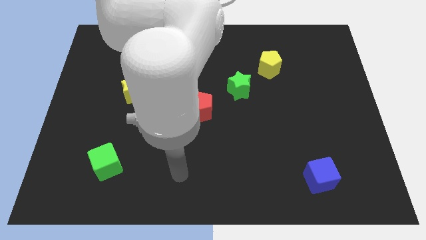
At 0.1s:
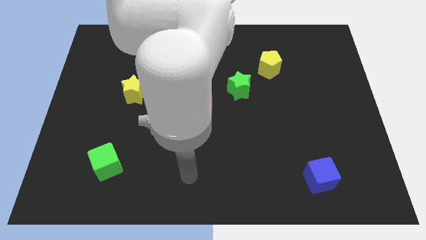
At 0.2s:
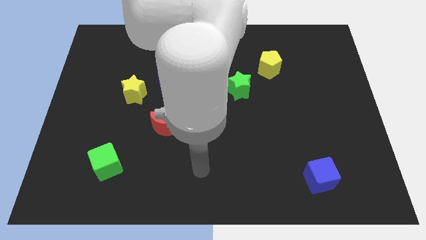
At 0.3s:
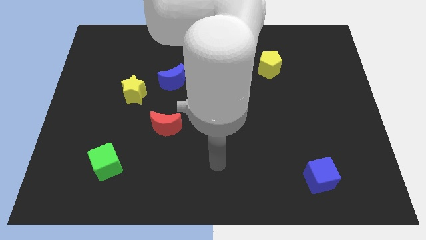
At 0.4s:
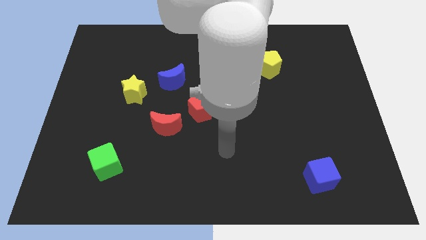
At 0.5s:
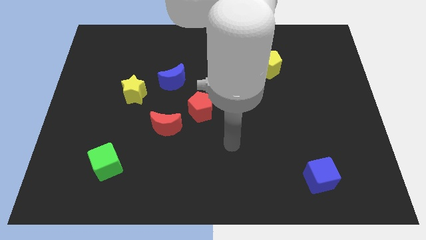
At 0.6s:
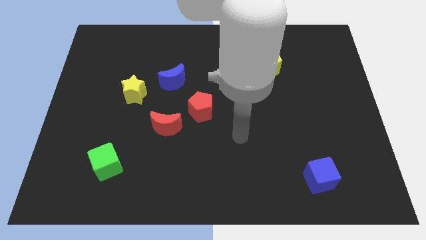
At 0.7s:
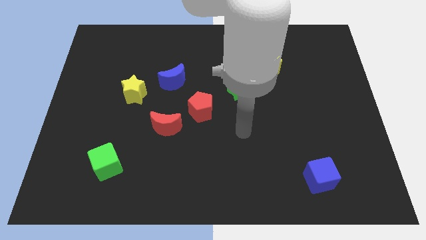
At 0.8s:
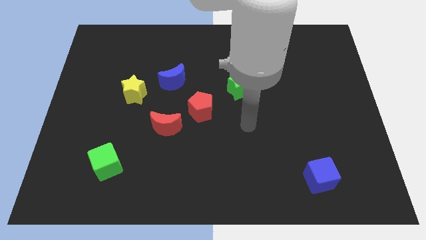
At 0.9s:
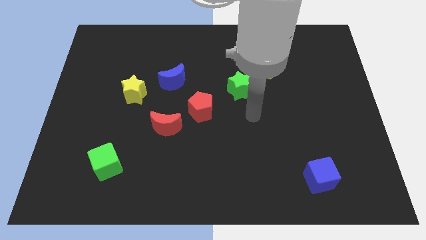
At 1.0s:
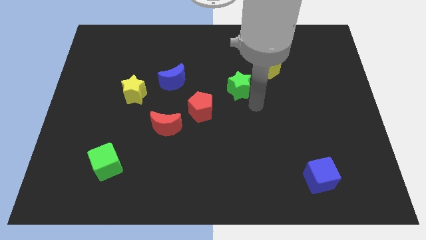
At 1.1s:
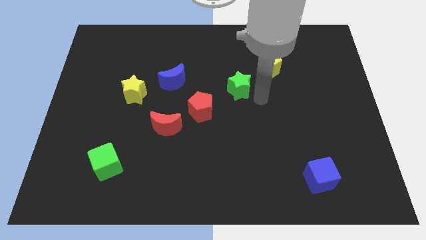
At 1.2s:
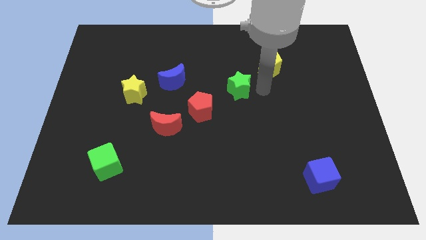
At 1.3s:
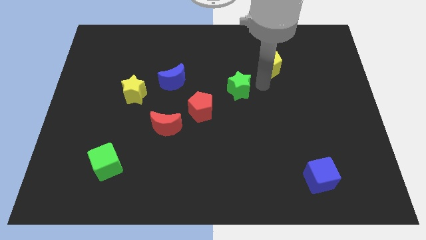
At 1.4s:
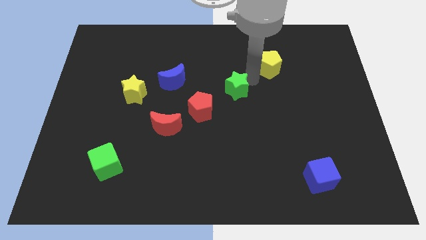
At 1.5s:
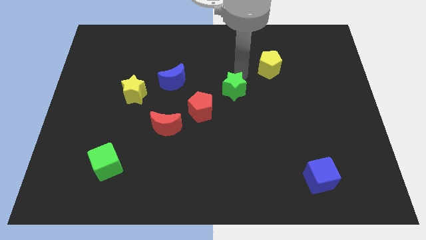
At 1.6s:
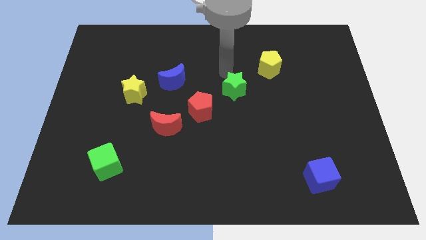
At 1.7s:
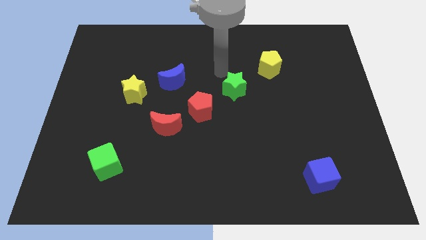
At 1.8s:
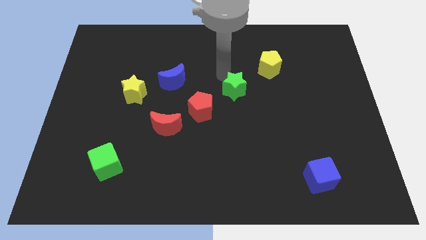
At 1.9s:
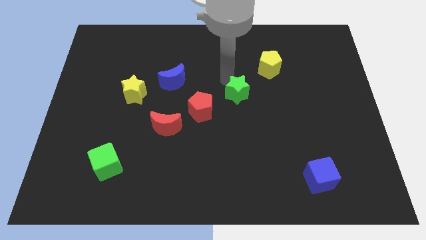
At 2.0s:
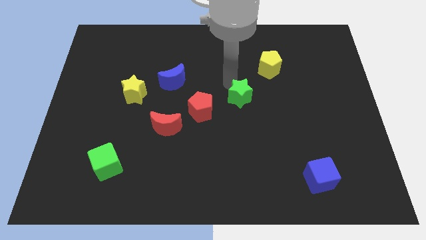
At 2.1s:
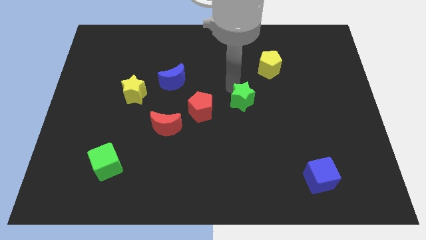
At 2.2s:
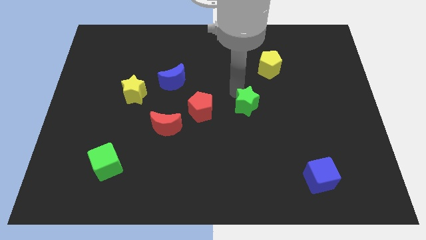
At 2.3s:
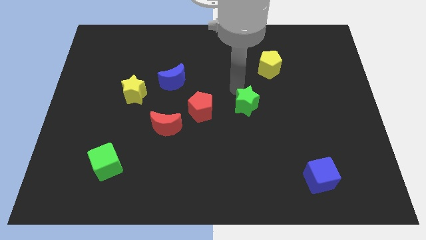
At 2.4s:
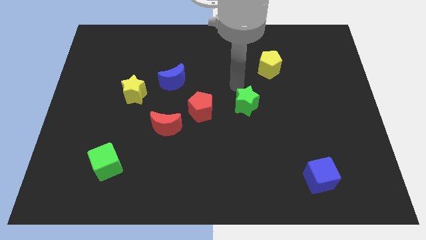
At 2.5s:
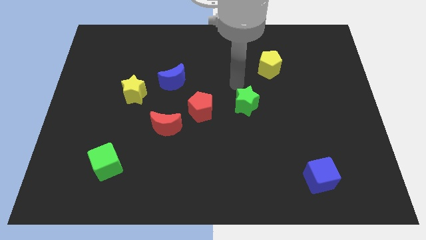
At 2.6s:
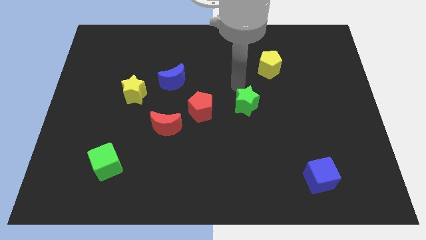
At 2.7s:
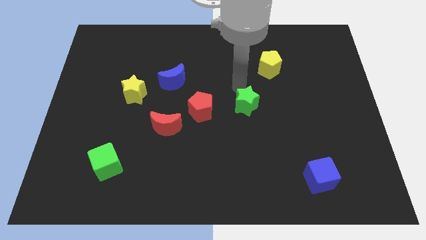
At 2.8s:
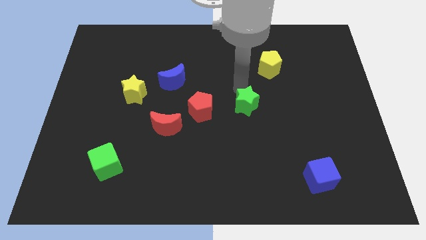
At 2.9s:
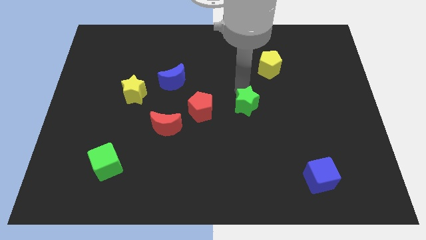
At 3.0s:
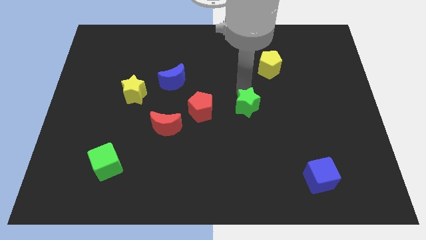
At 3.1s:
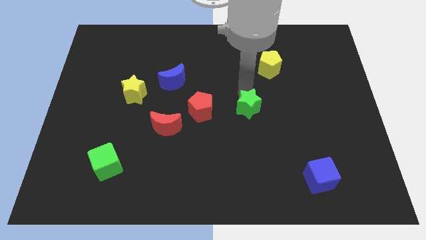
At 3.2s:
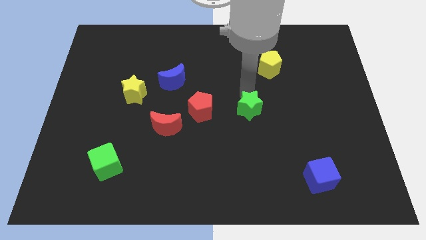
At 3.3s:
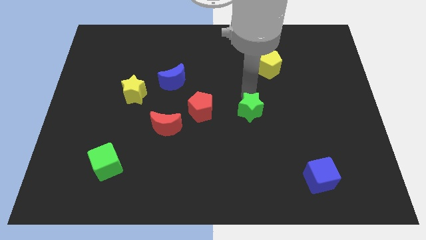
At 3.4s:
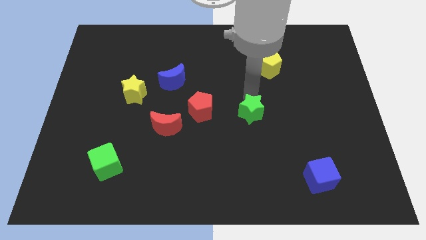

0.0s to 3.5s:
slightly push the green star down

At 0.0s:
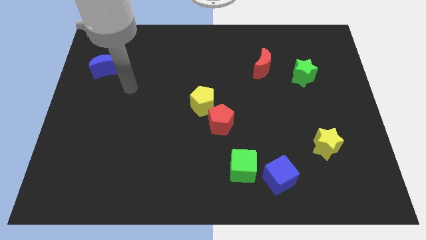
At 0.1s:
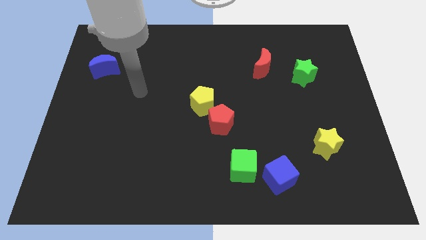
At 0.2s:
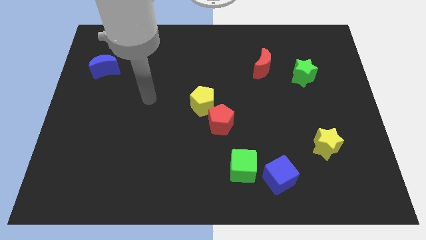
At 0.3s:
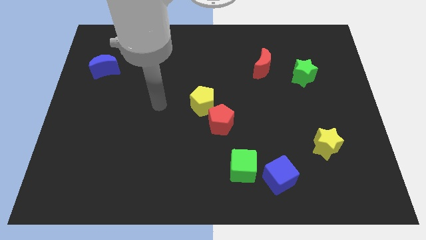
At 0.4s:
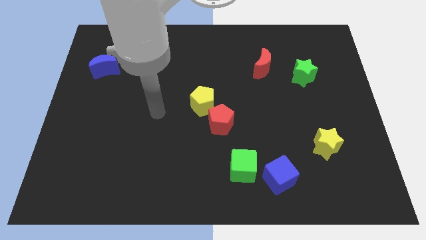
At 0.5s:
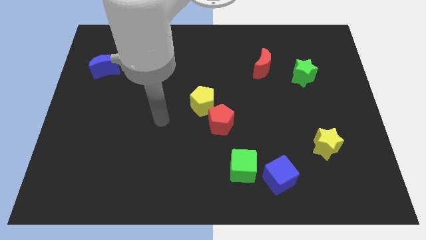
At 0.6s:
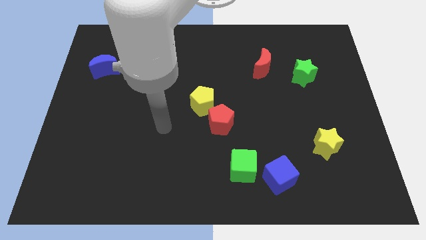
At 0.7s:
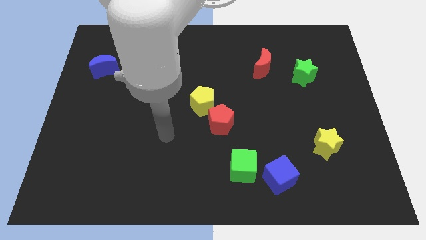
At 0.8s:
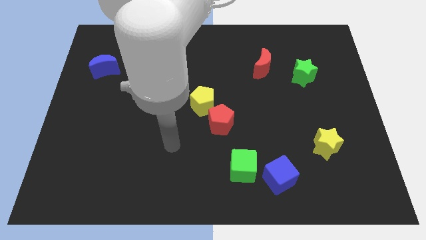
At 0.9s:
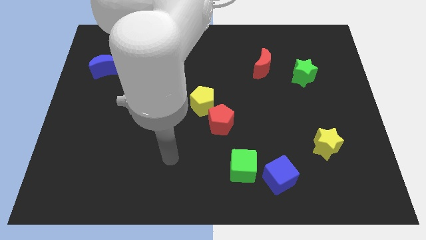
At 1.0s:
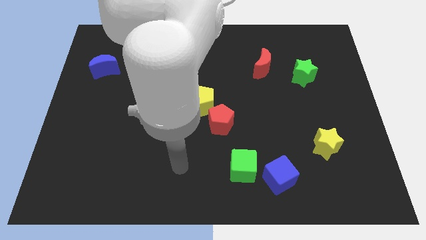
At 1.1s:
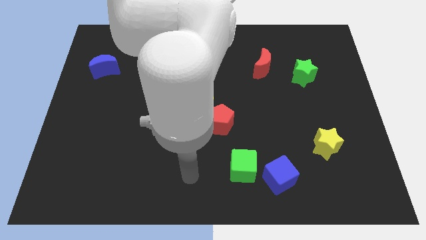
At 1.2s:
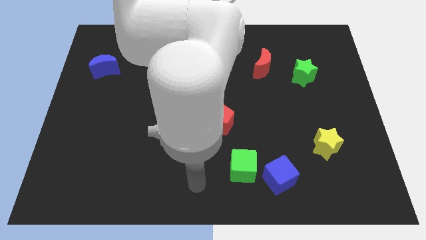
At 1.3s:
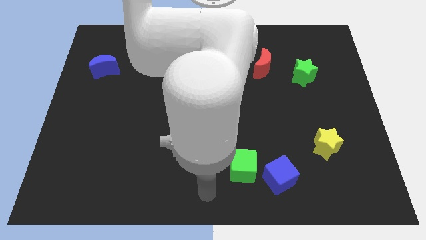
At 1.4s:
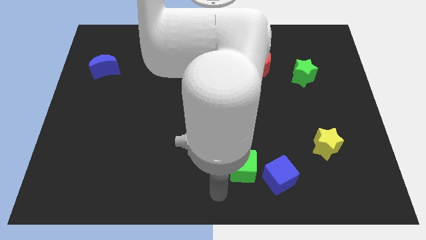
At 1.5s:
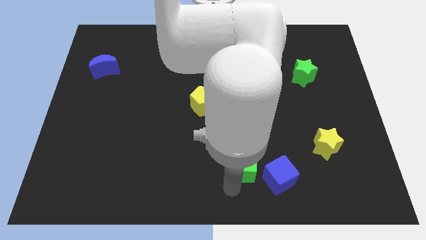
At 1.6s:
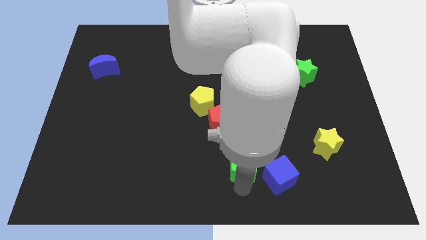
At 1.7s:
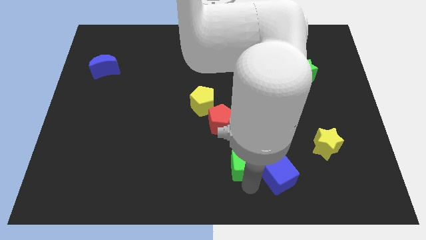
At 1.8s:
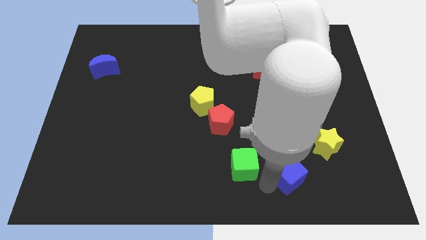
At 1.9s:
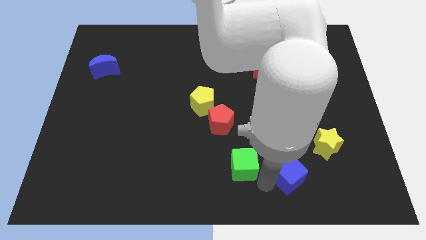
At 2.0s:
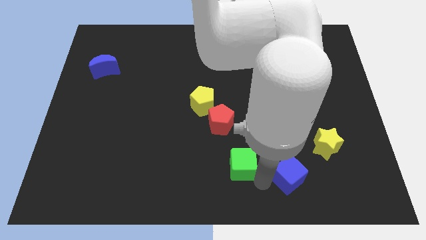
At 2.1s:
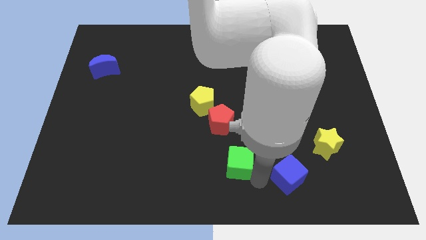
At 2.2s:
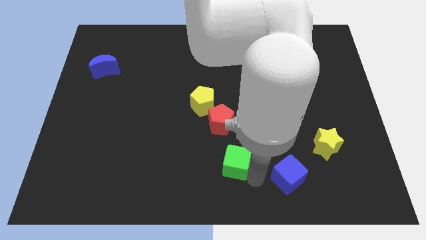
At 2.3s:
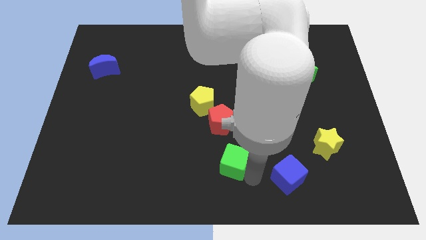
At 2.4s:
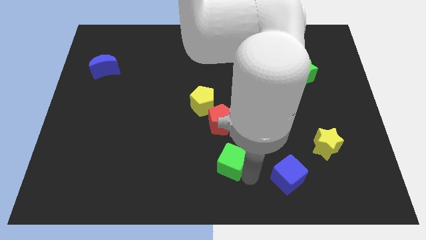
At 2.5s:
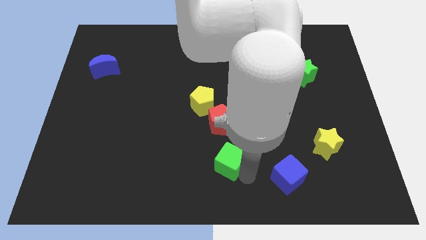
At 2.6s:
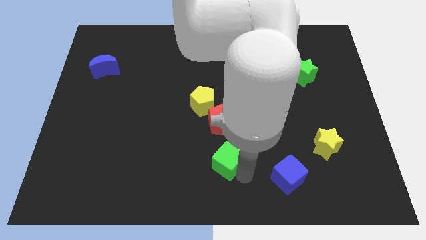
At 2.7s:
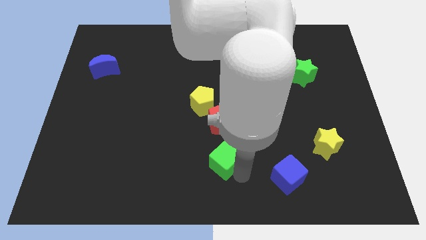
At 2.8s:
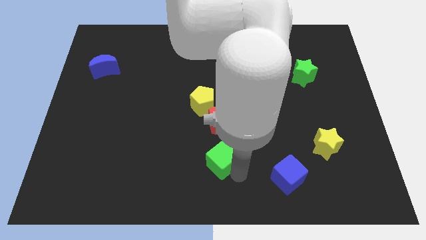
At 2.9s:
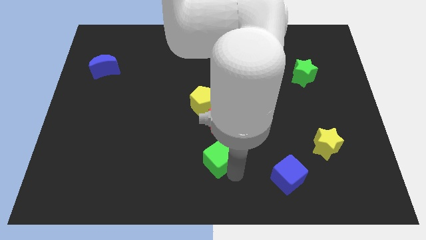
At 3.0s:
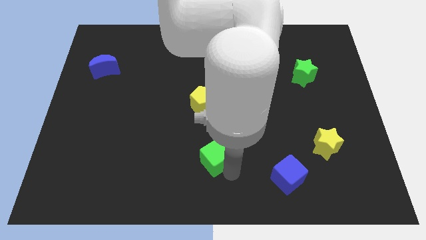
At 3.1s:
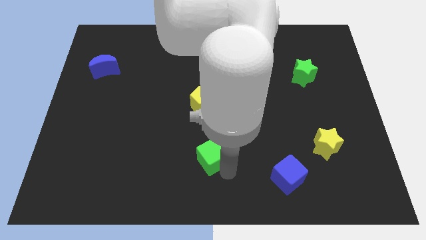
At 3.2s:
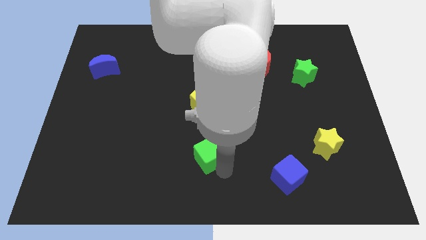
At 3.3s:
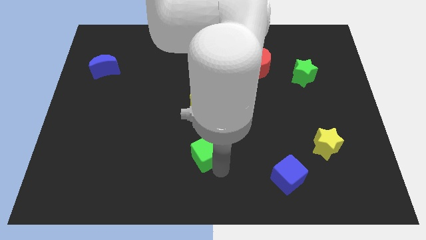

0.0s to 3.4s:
push the green cube upwards and then to the left somewhat

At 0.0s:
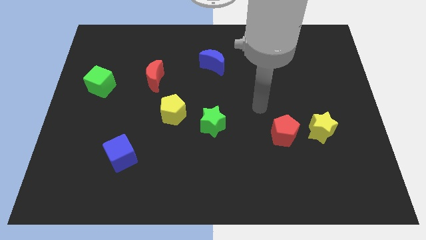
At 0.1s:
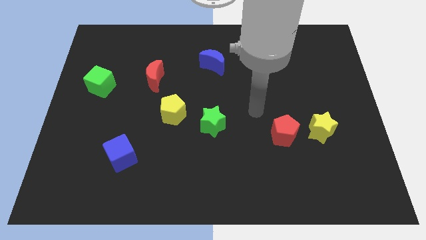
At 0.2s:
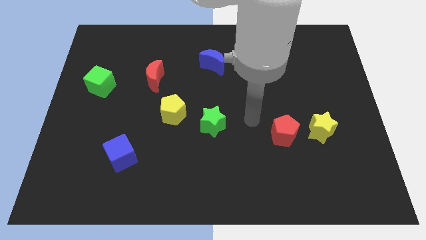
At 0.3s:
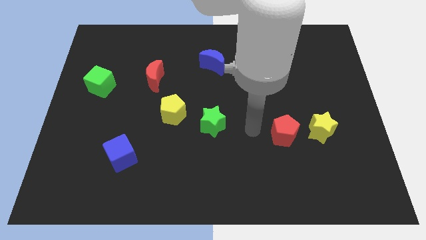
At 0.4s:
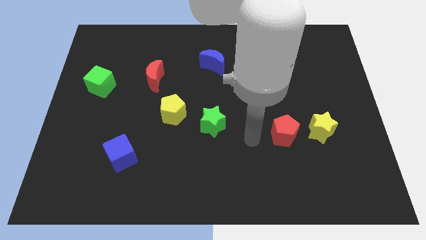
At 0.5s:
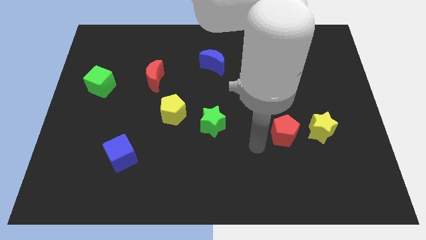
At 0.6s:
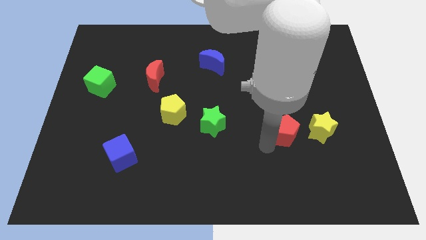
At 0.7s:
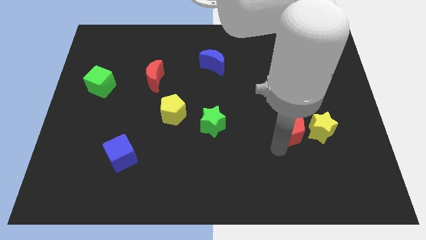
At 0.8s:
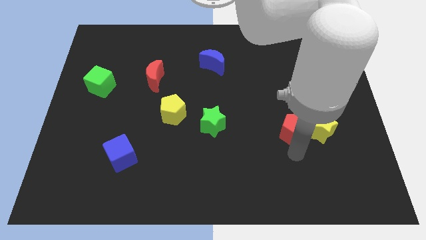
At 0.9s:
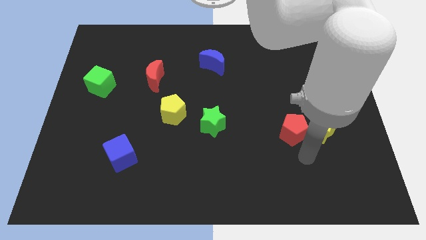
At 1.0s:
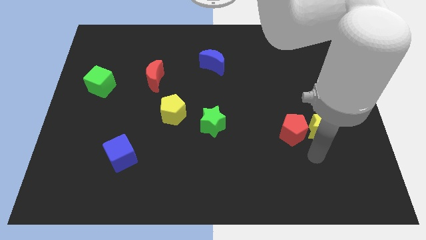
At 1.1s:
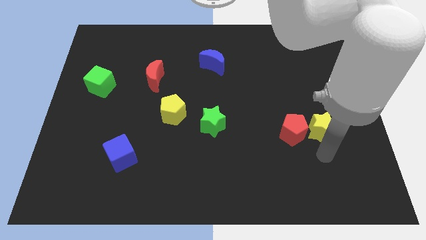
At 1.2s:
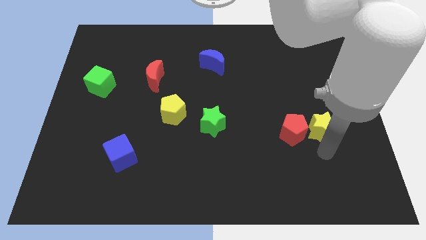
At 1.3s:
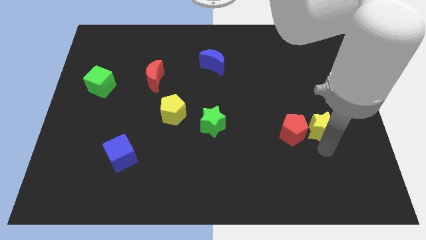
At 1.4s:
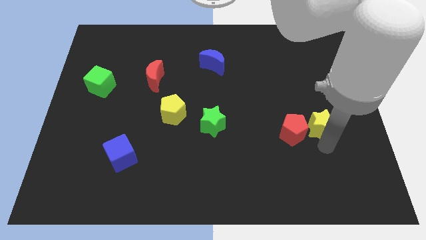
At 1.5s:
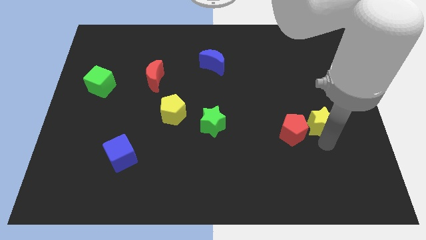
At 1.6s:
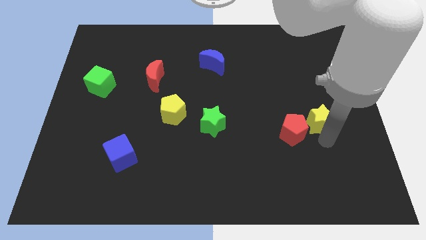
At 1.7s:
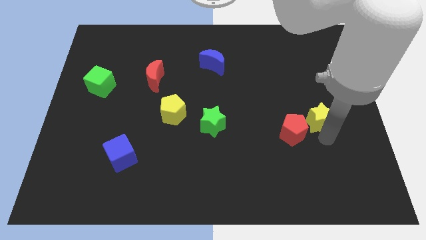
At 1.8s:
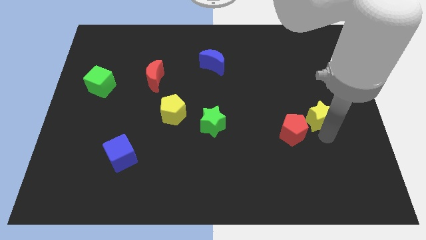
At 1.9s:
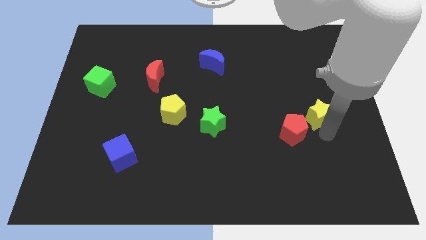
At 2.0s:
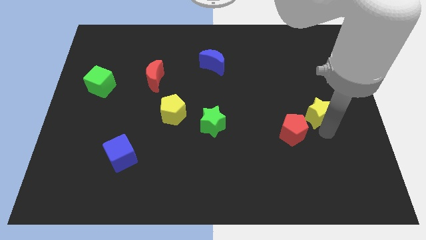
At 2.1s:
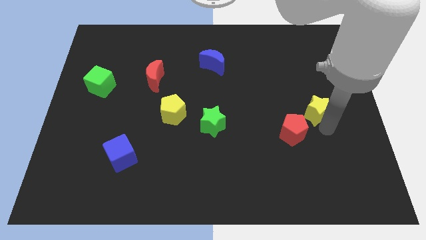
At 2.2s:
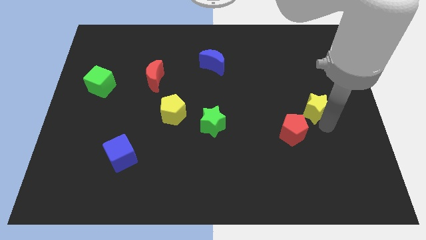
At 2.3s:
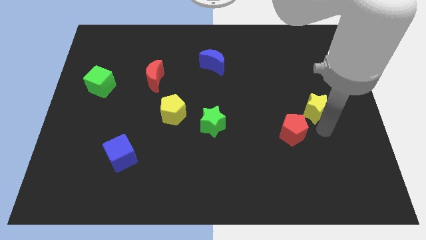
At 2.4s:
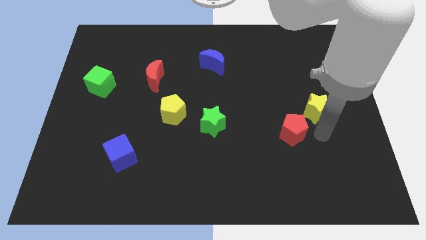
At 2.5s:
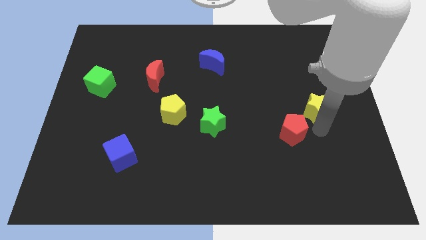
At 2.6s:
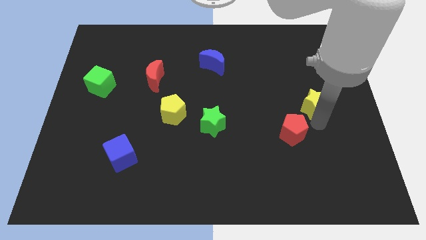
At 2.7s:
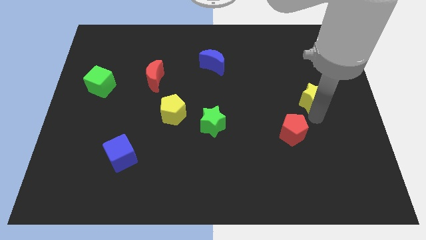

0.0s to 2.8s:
slightly slide the yellow star up
